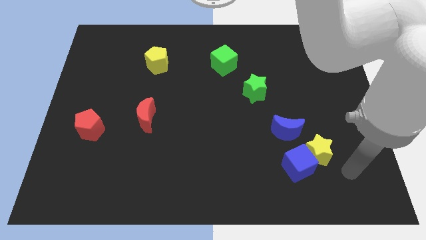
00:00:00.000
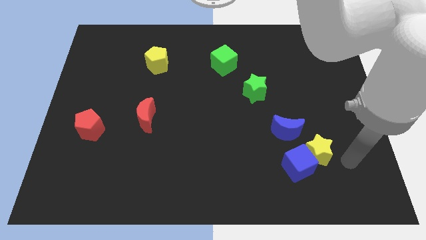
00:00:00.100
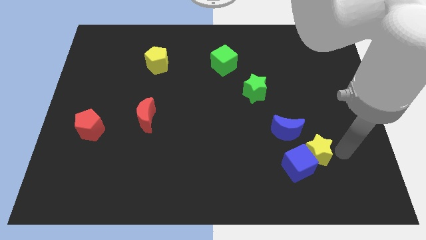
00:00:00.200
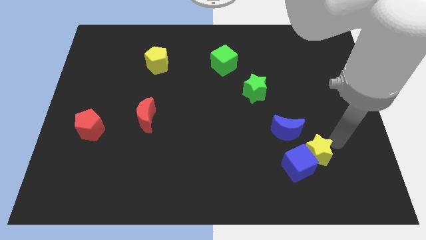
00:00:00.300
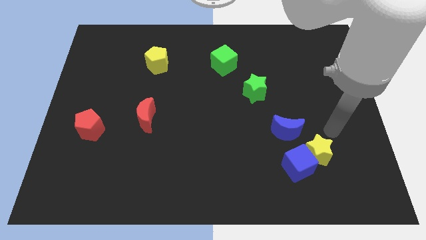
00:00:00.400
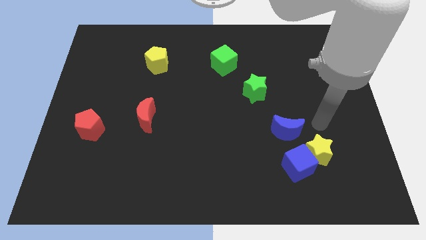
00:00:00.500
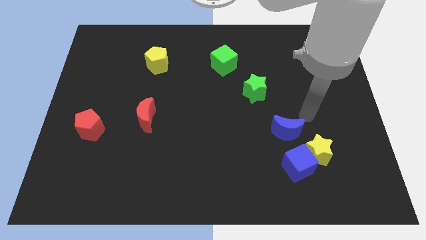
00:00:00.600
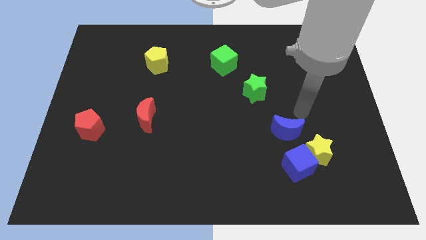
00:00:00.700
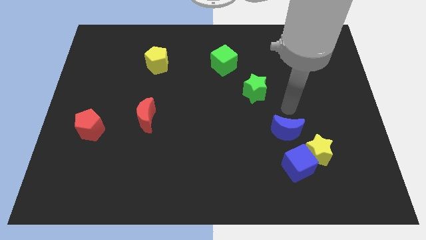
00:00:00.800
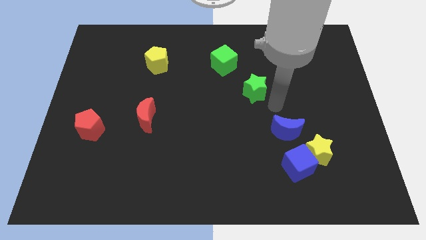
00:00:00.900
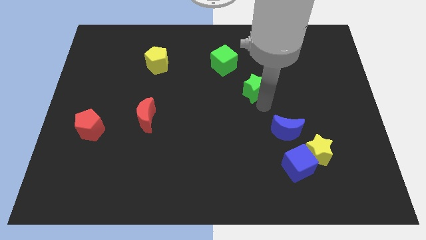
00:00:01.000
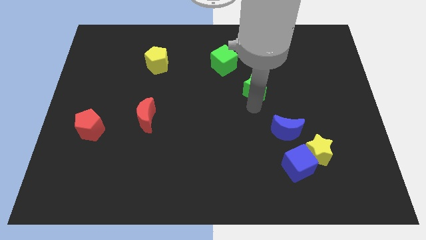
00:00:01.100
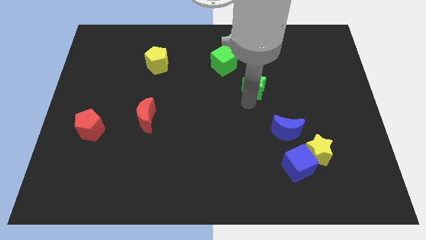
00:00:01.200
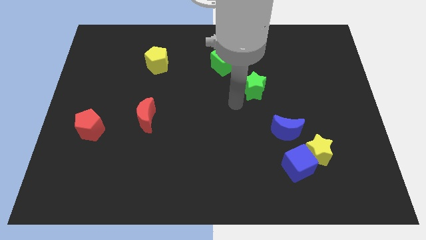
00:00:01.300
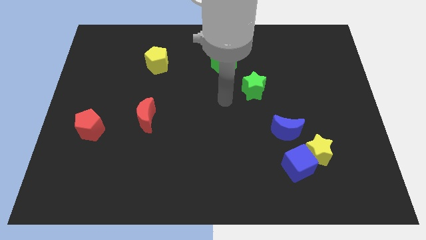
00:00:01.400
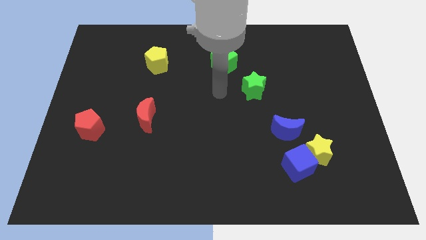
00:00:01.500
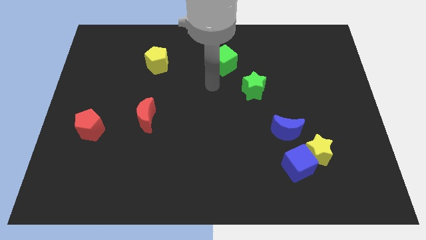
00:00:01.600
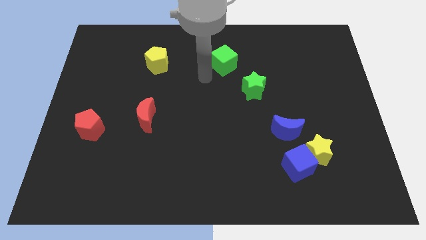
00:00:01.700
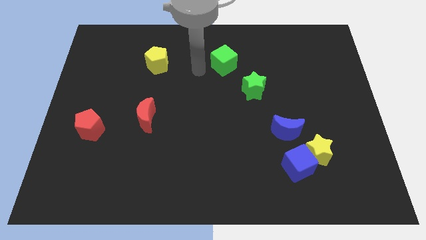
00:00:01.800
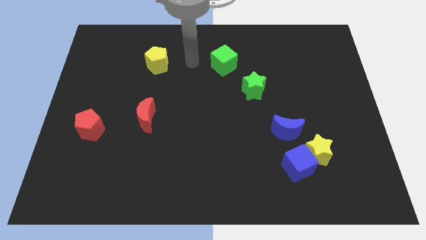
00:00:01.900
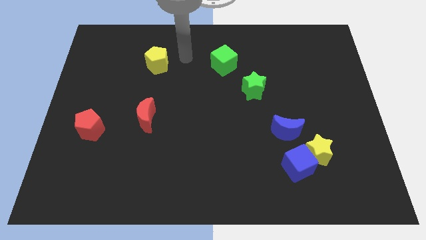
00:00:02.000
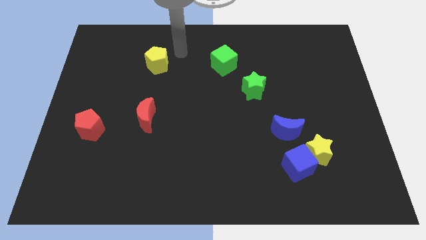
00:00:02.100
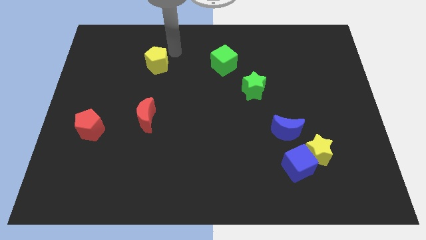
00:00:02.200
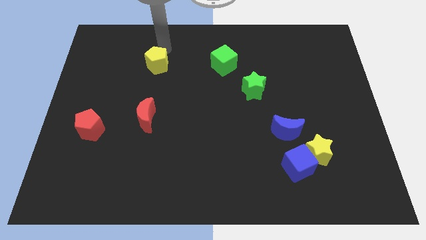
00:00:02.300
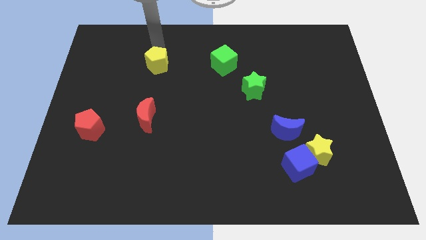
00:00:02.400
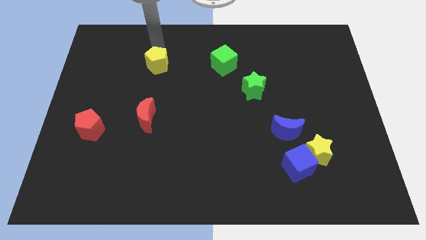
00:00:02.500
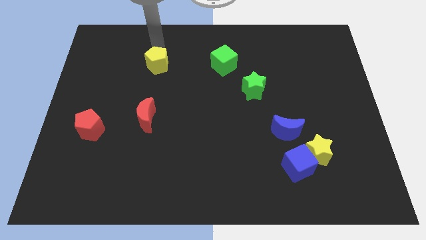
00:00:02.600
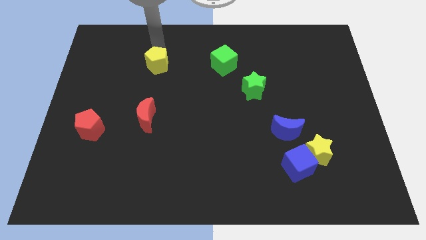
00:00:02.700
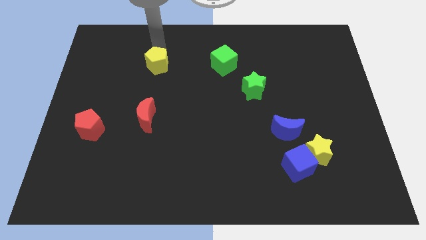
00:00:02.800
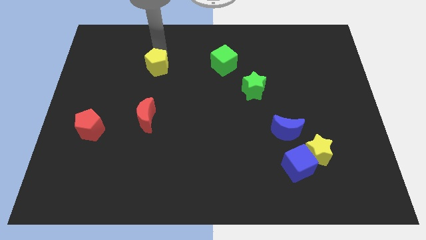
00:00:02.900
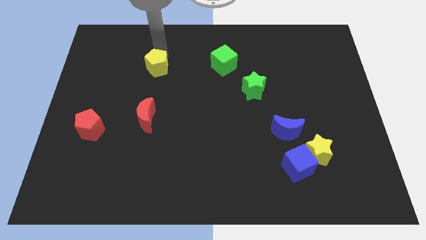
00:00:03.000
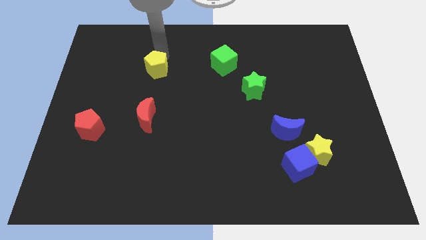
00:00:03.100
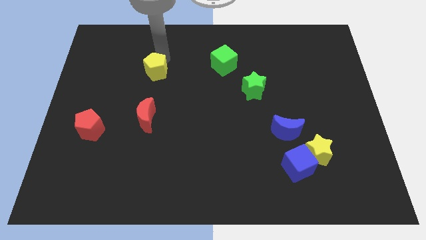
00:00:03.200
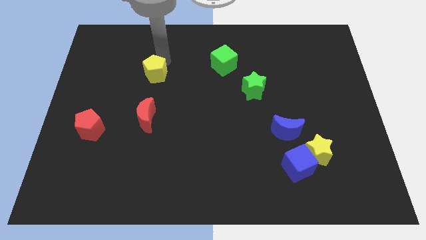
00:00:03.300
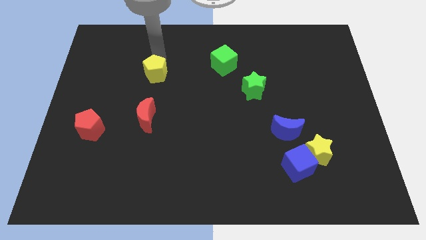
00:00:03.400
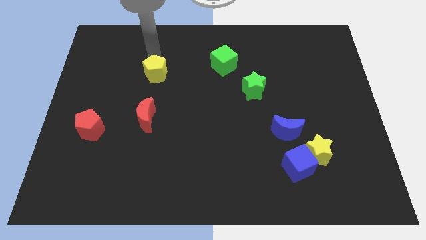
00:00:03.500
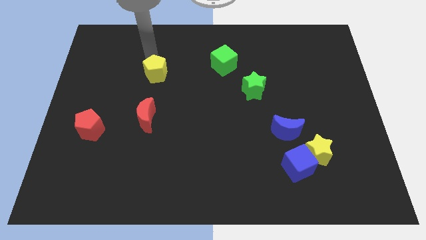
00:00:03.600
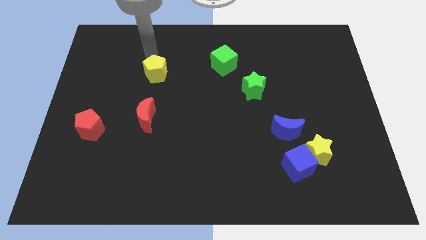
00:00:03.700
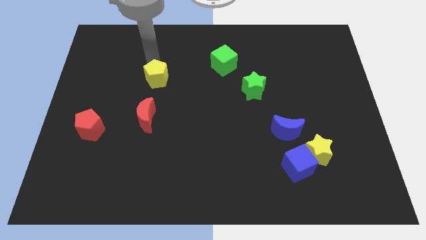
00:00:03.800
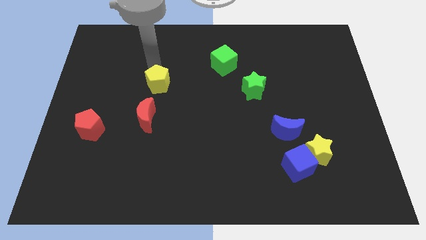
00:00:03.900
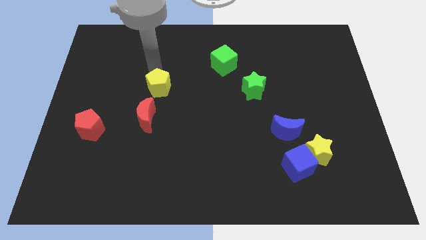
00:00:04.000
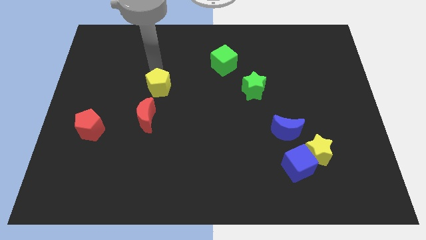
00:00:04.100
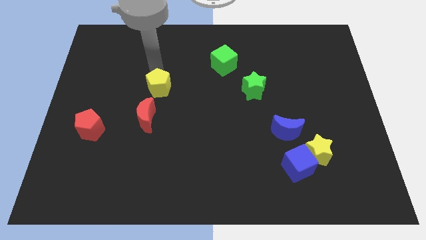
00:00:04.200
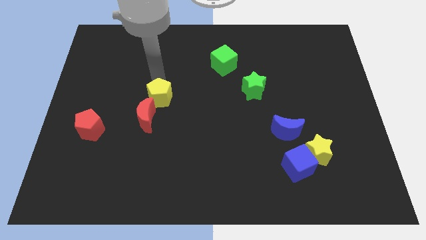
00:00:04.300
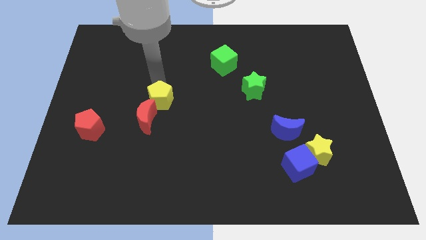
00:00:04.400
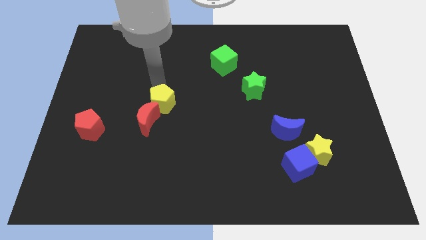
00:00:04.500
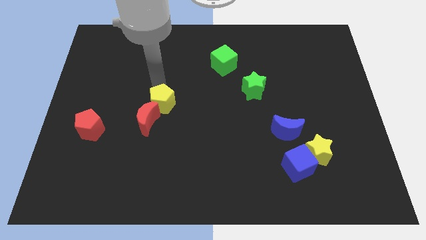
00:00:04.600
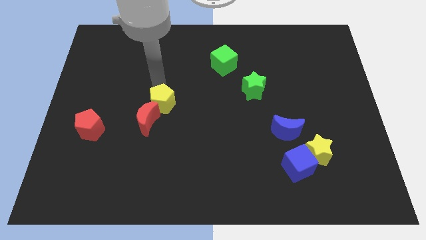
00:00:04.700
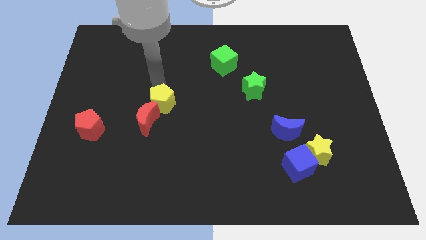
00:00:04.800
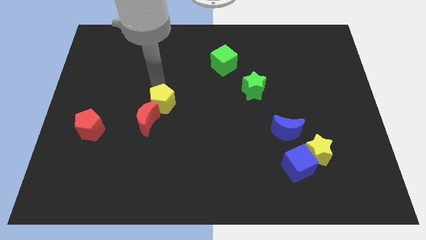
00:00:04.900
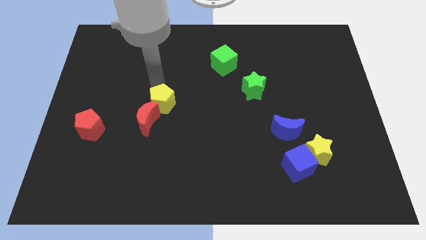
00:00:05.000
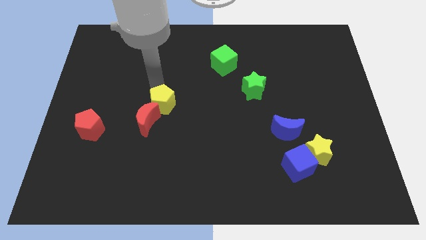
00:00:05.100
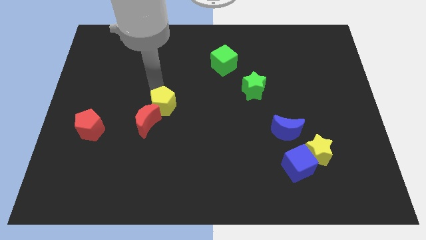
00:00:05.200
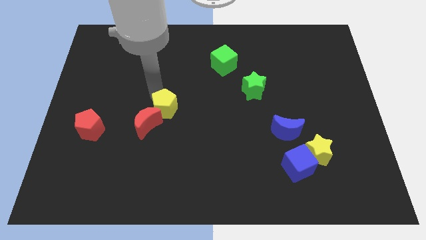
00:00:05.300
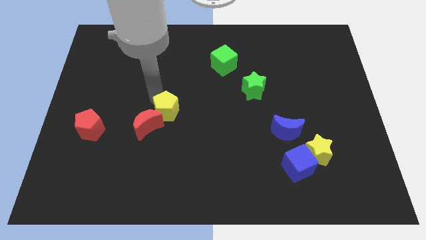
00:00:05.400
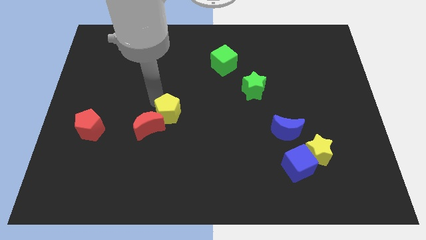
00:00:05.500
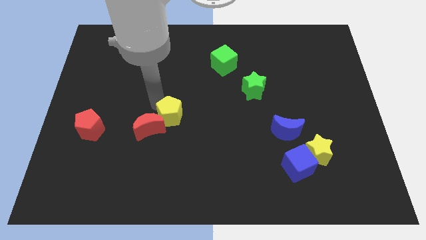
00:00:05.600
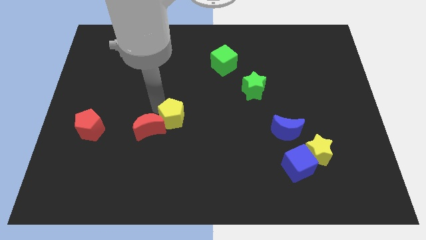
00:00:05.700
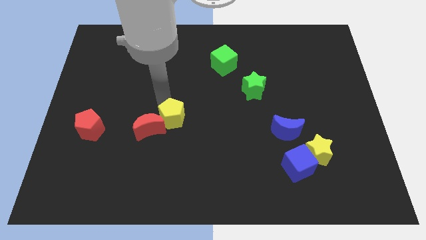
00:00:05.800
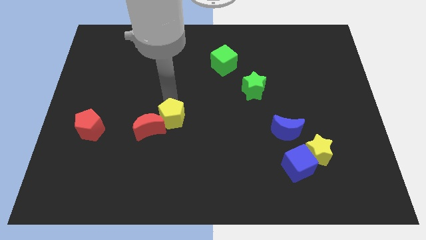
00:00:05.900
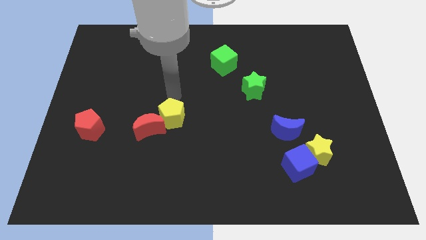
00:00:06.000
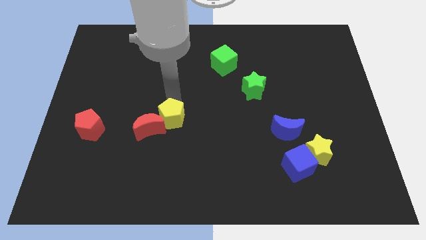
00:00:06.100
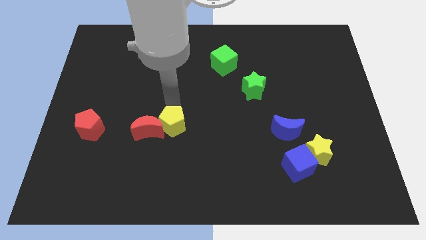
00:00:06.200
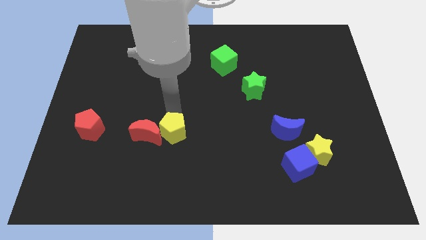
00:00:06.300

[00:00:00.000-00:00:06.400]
put the yellow pentagon to the bottom right side of the red moon

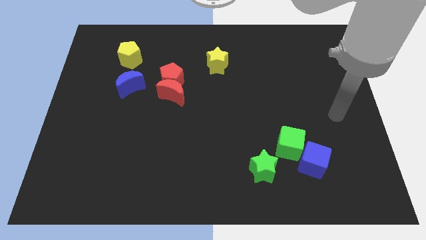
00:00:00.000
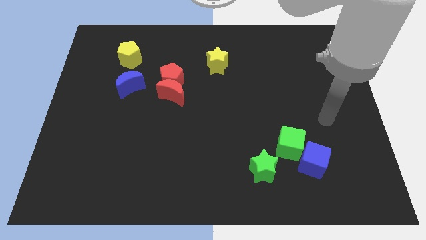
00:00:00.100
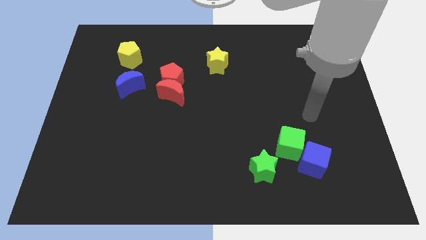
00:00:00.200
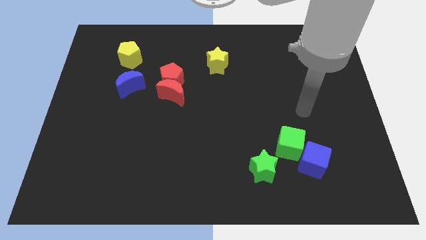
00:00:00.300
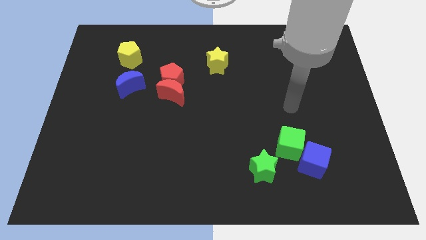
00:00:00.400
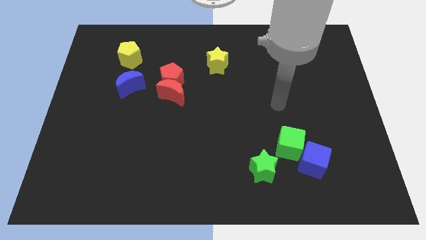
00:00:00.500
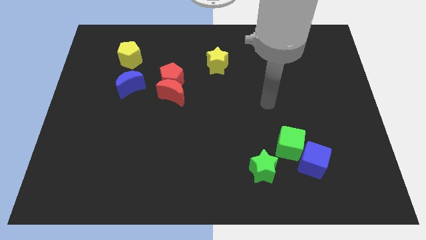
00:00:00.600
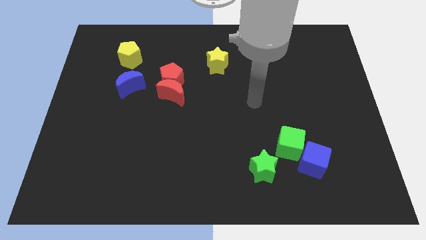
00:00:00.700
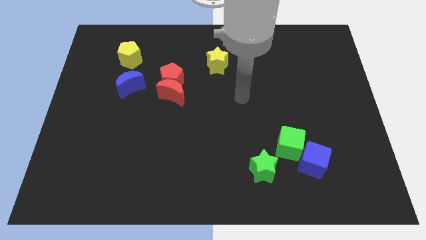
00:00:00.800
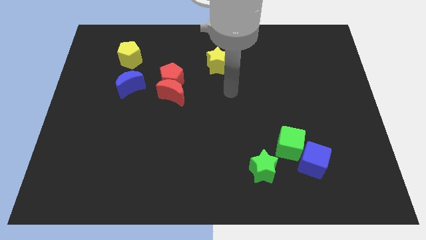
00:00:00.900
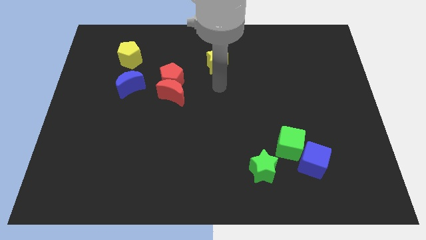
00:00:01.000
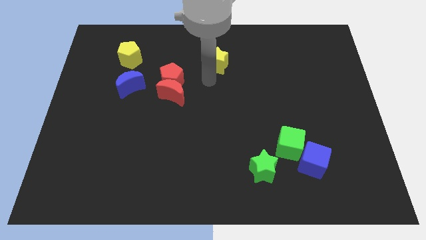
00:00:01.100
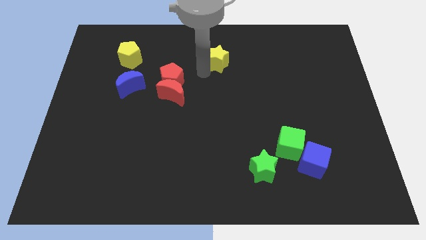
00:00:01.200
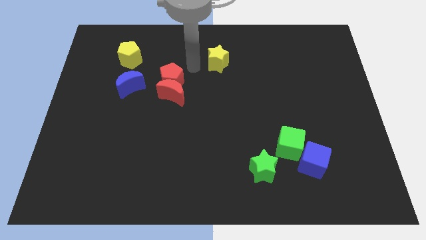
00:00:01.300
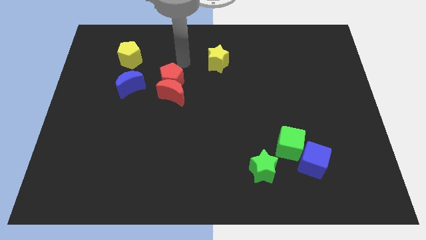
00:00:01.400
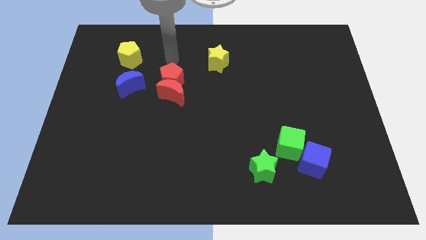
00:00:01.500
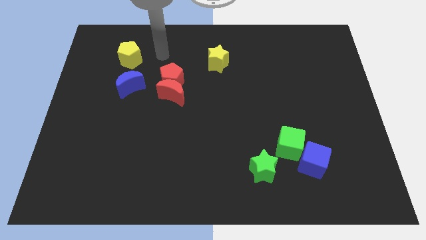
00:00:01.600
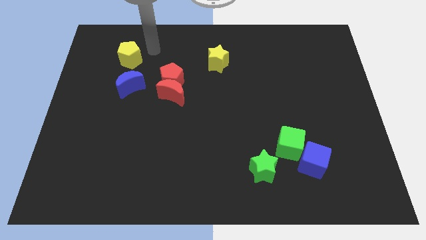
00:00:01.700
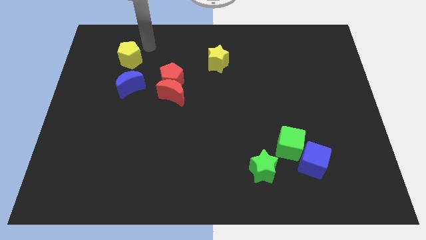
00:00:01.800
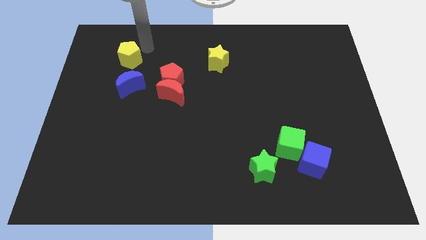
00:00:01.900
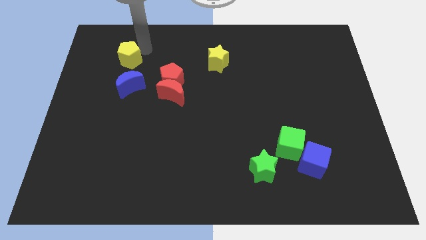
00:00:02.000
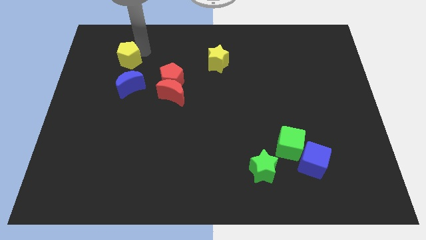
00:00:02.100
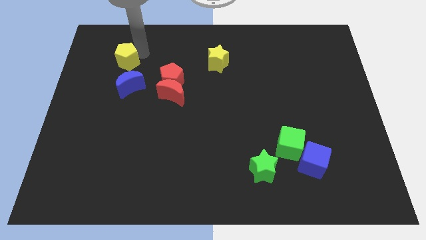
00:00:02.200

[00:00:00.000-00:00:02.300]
move the yellow pentagon to the top left of the blue moon
